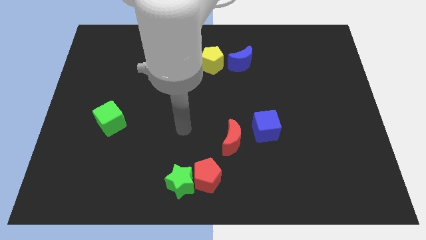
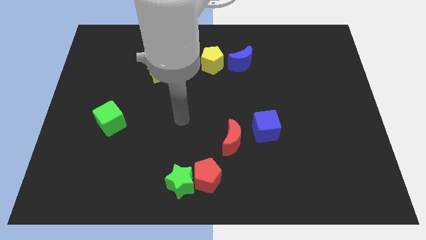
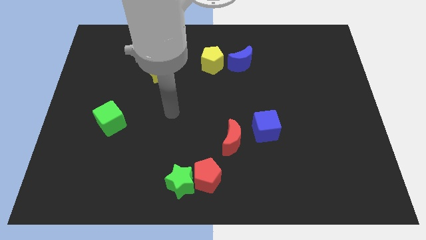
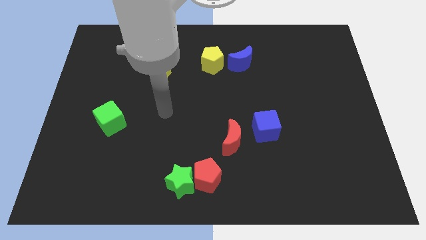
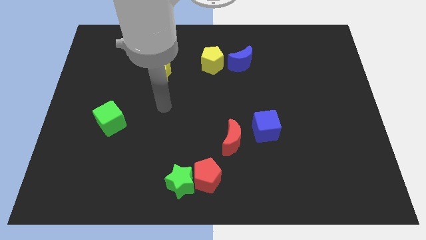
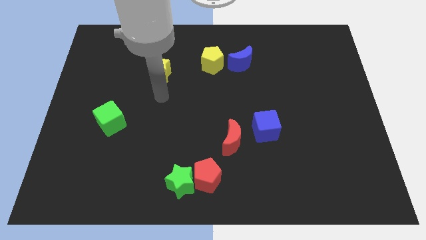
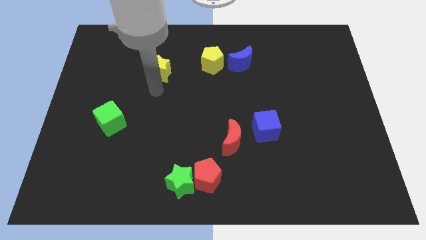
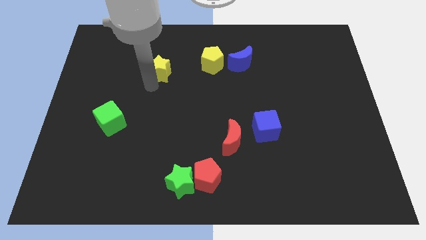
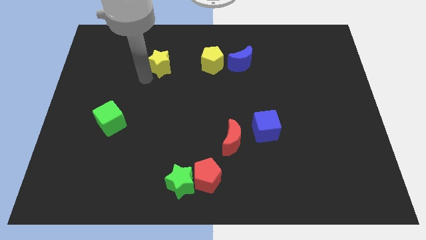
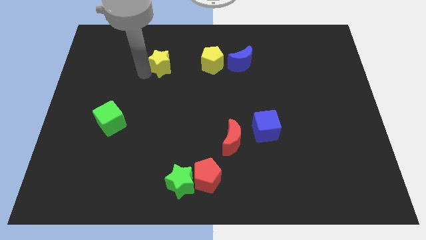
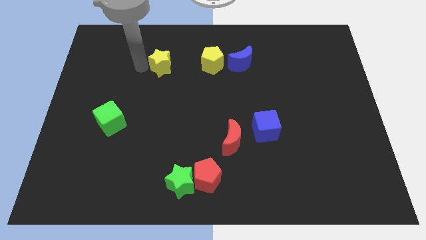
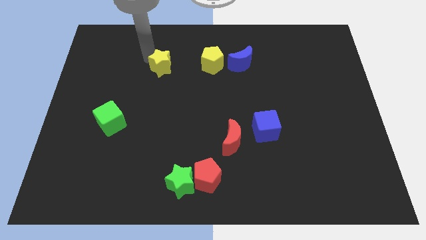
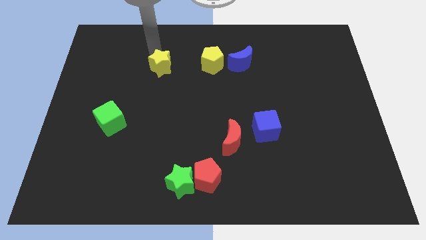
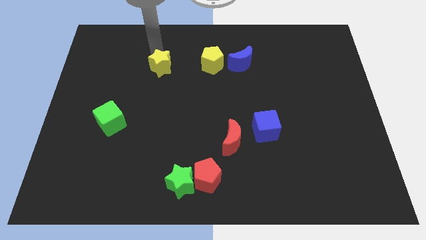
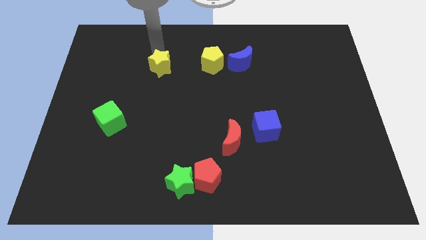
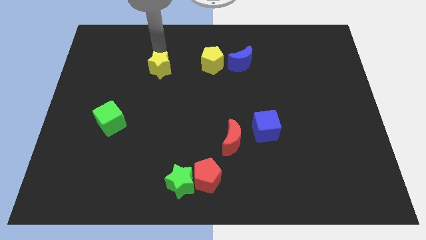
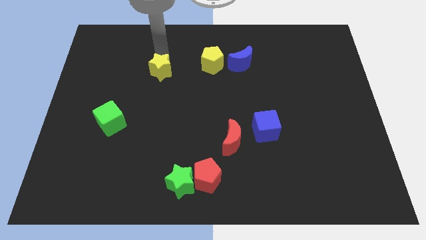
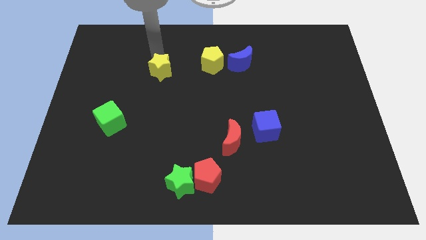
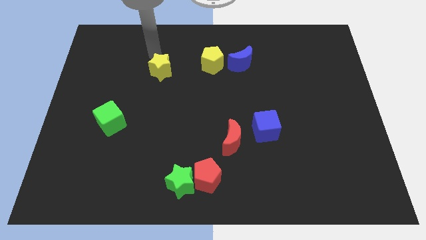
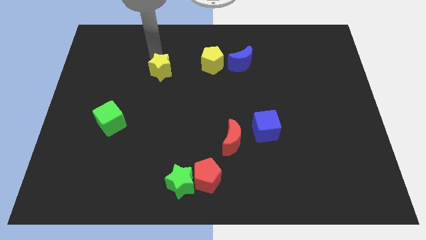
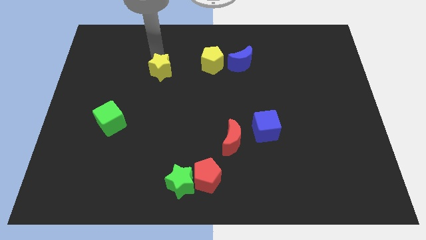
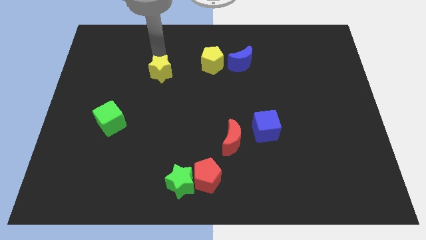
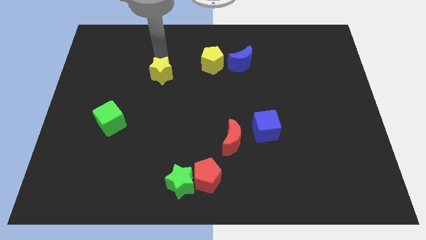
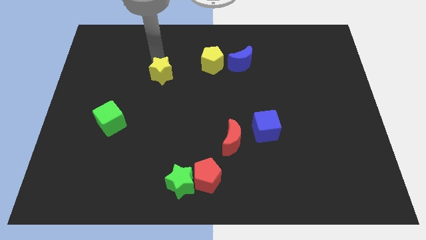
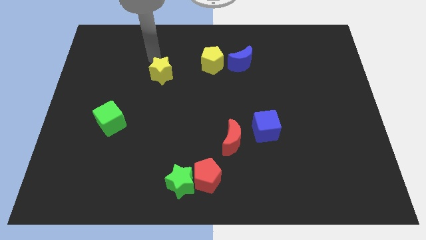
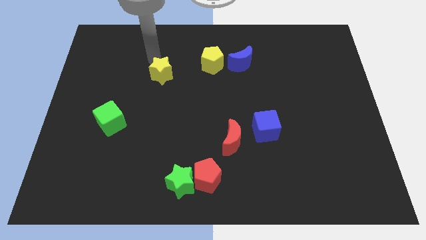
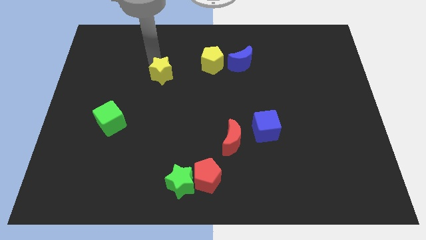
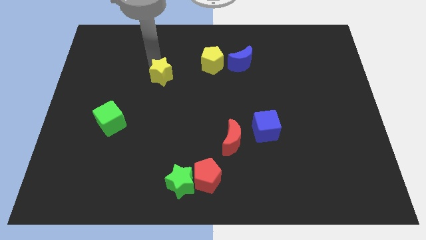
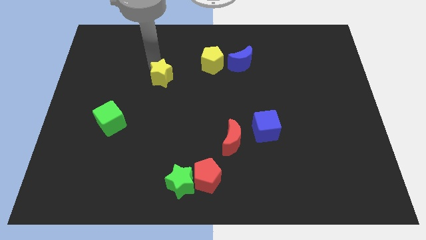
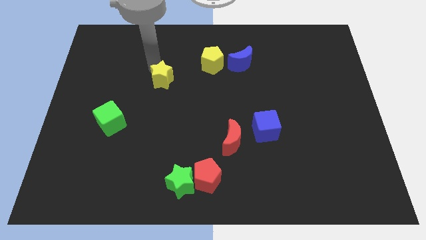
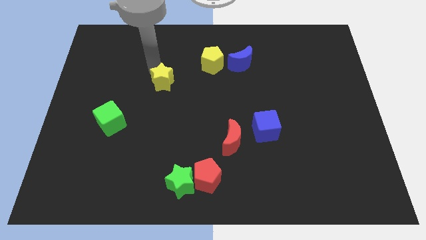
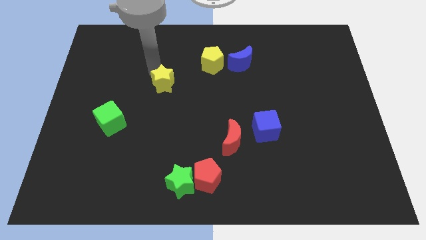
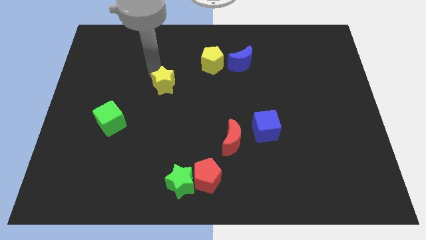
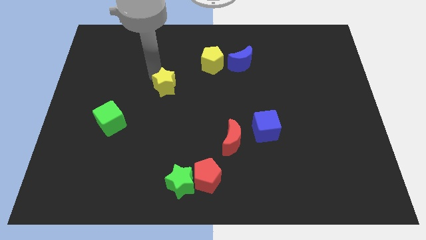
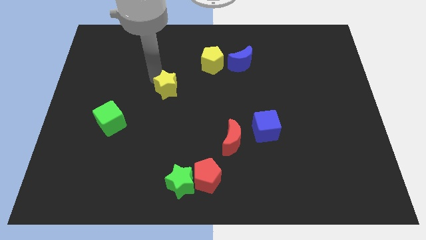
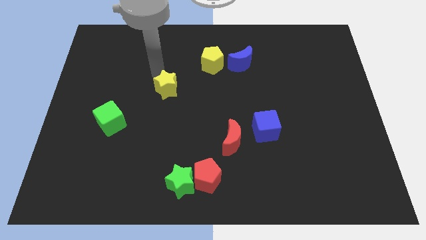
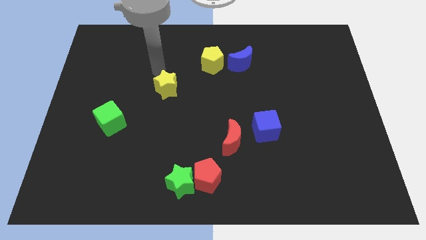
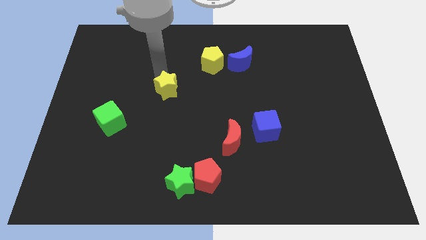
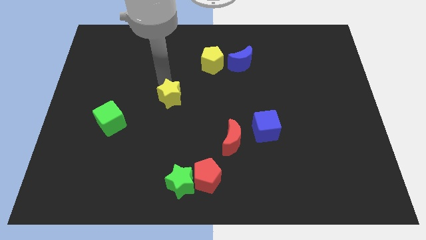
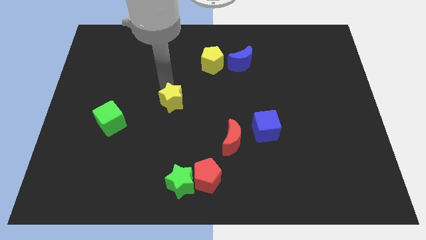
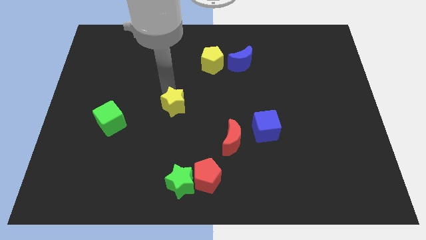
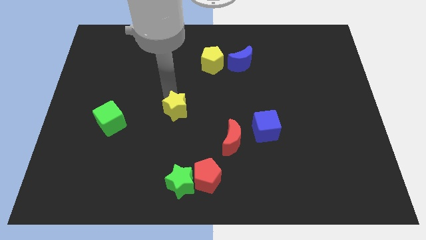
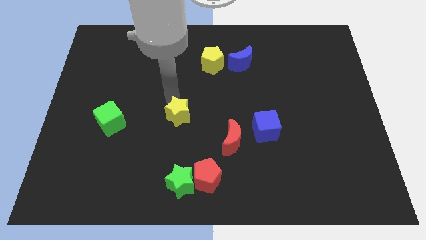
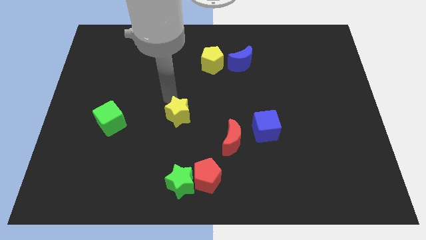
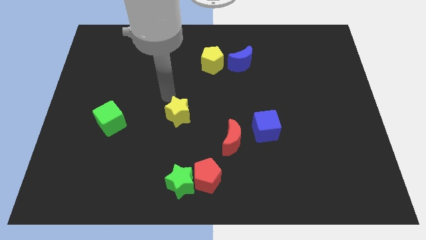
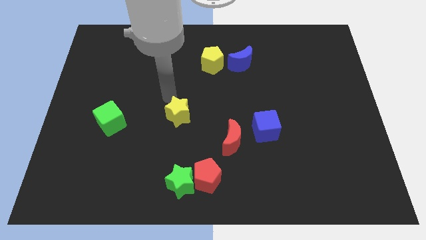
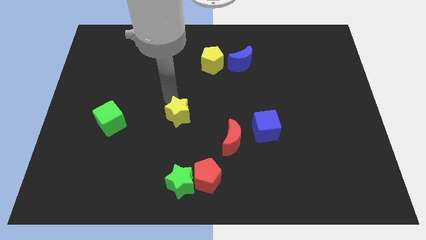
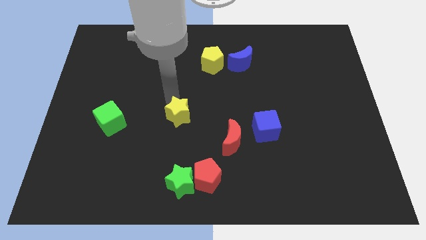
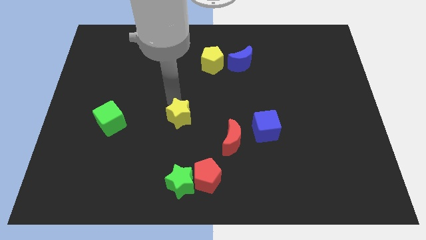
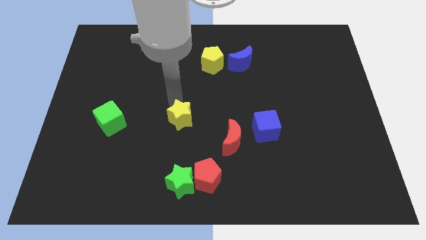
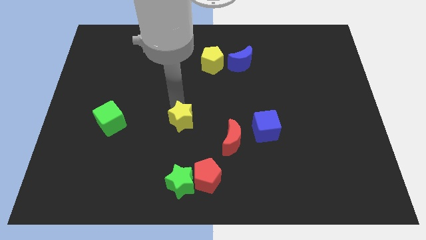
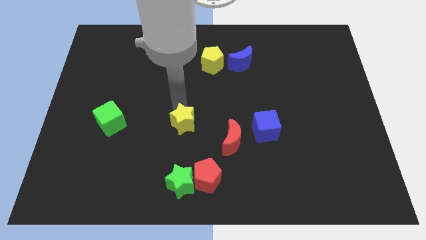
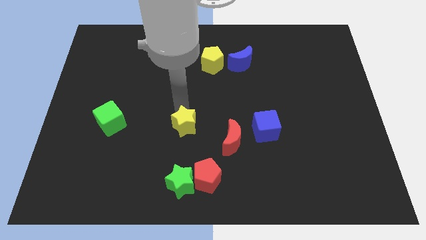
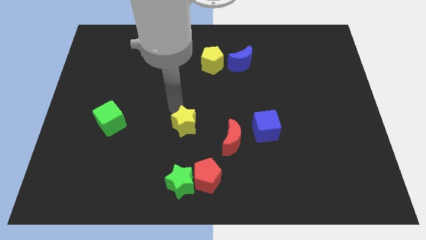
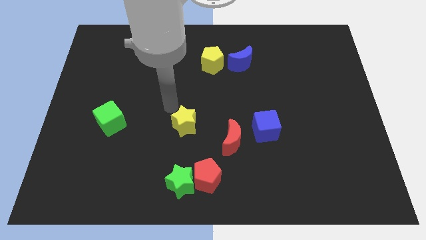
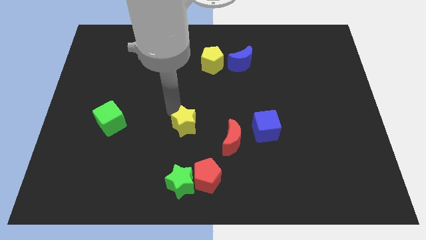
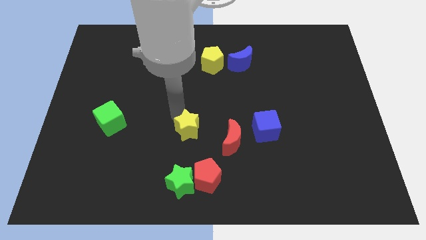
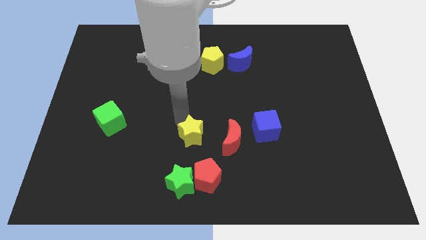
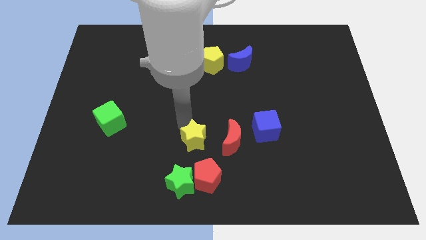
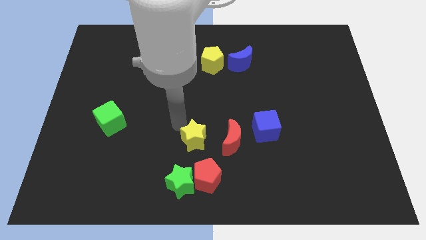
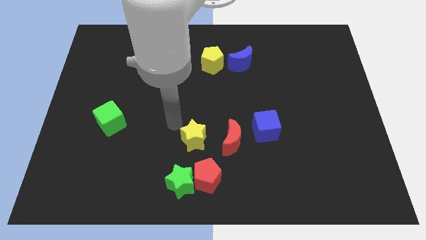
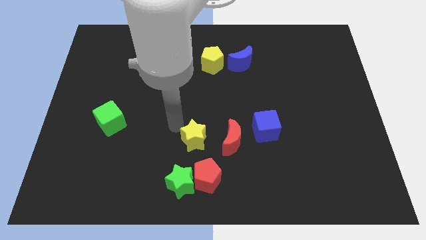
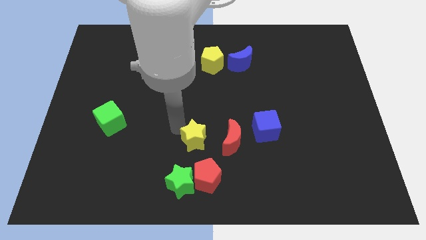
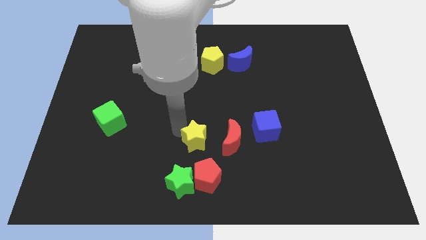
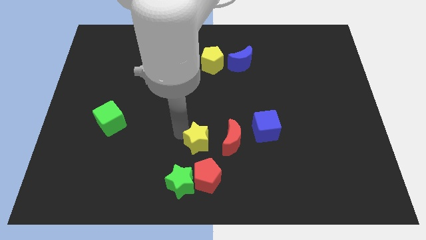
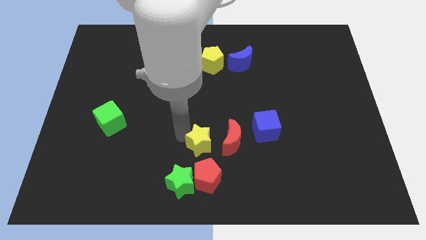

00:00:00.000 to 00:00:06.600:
slide the yellow star downwards and right diagonally

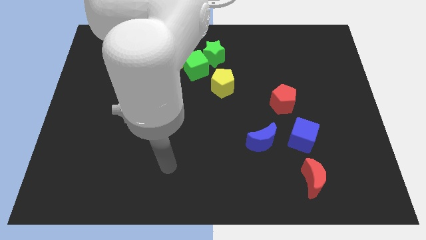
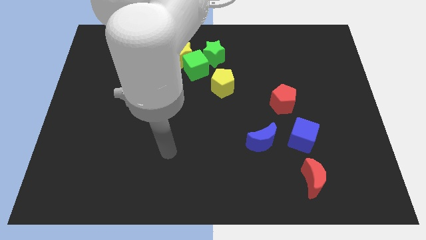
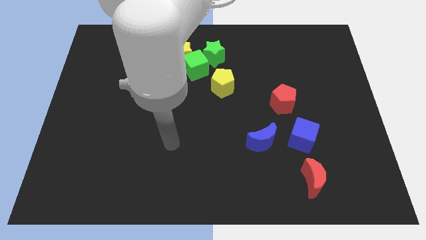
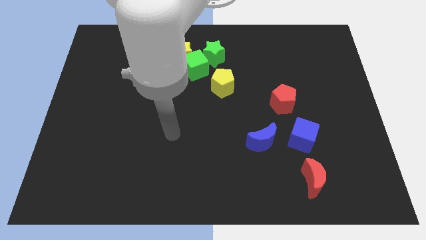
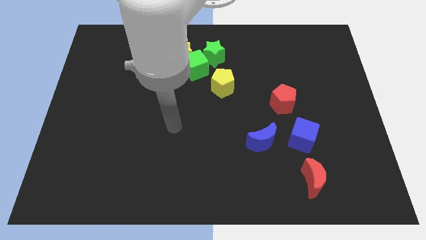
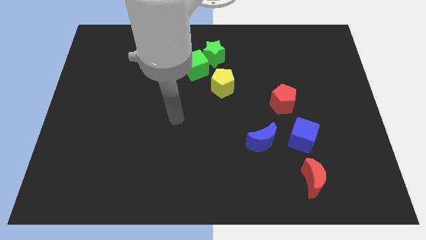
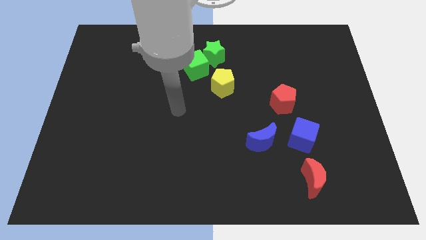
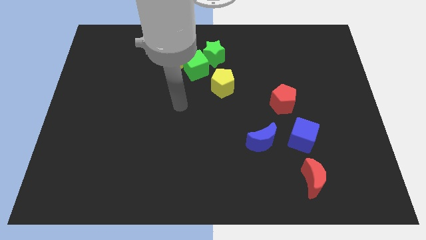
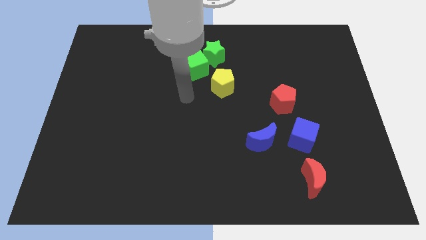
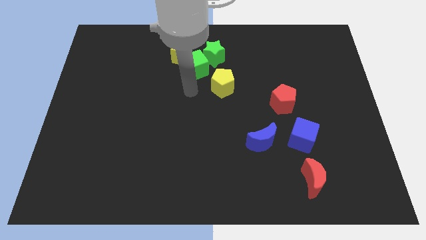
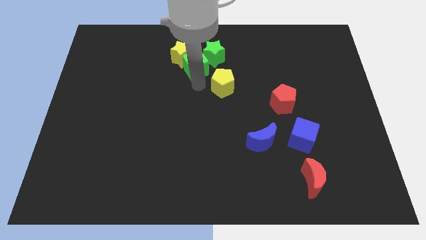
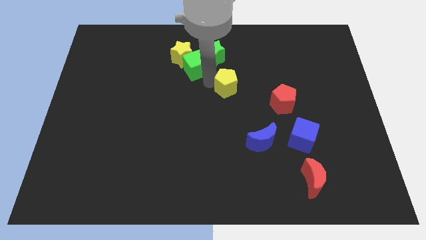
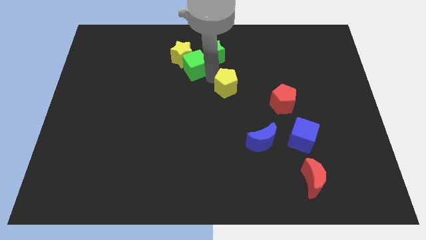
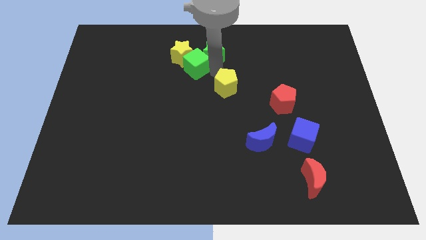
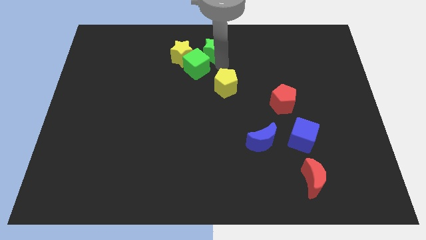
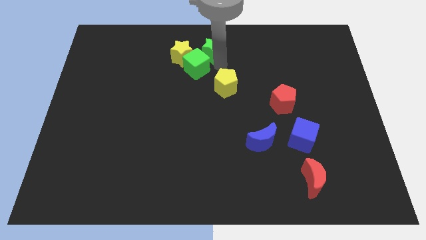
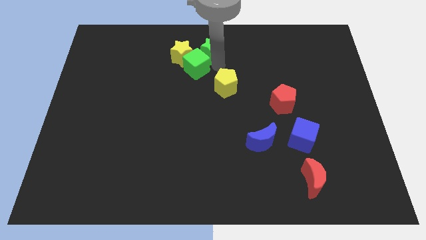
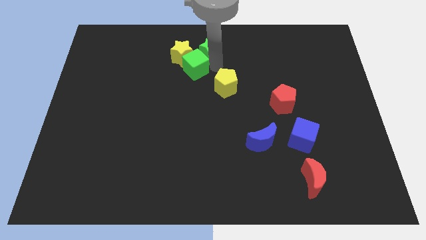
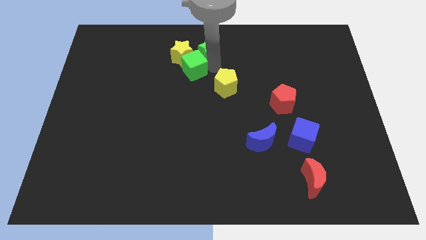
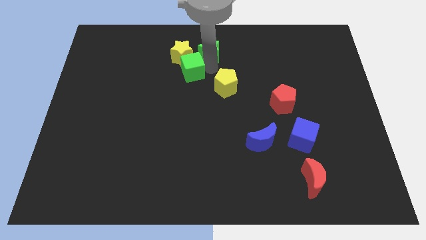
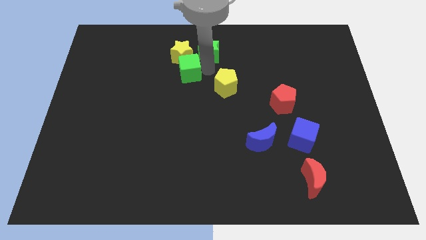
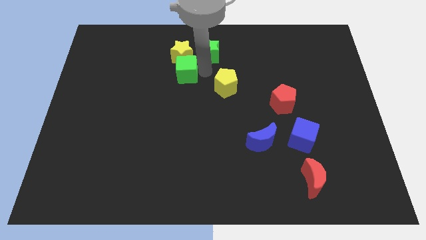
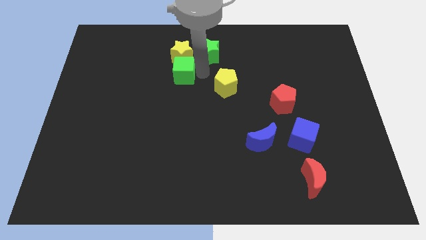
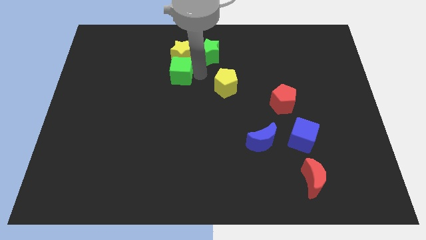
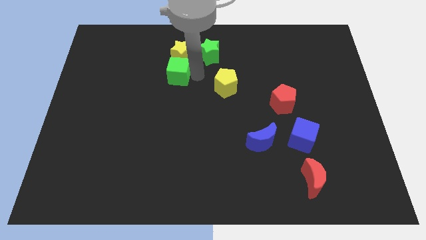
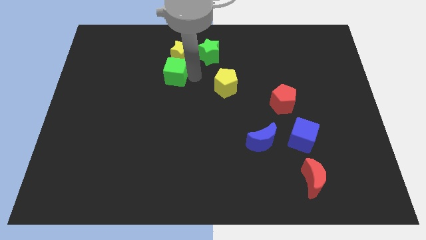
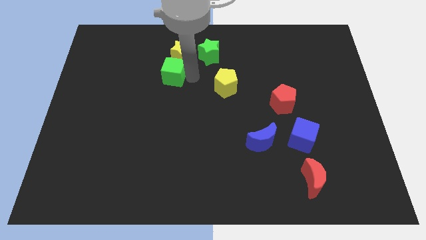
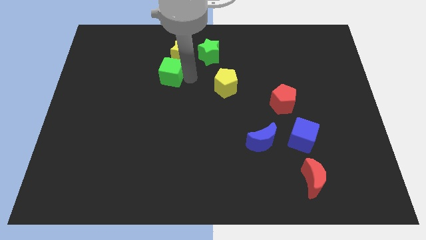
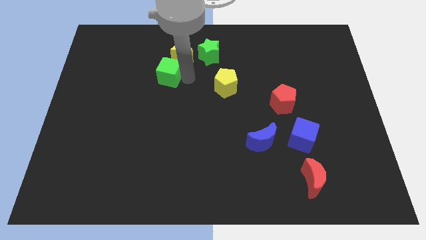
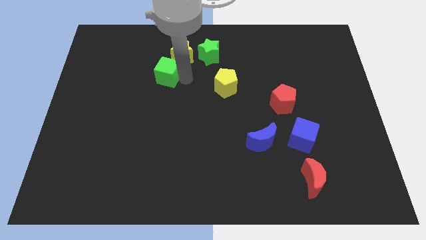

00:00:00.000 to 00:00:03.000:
push the green cube to the left a little bit
